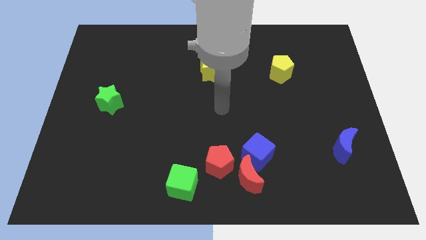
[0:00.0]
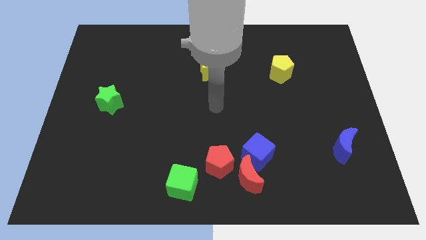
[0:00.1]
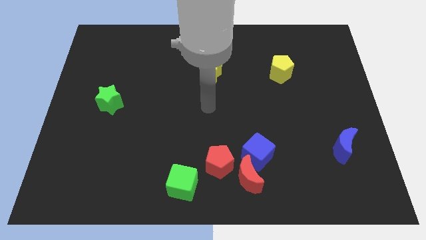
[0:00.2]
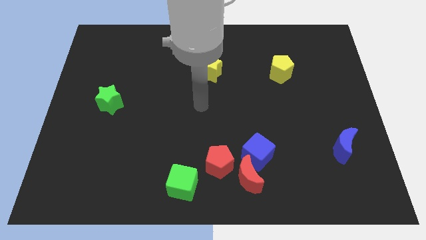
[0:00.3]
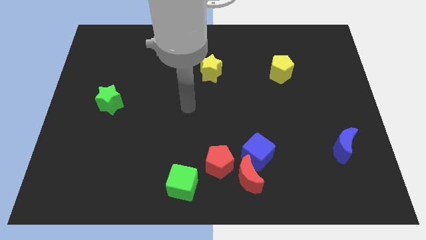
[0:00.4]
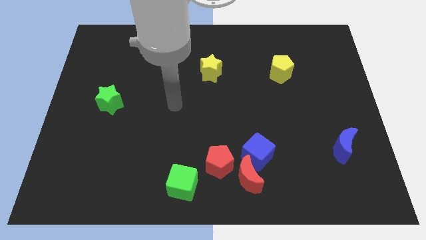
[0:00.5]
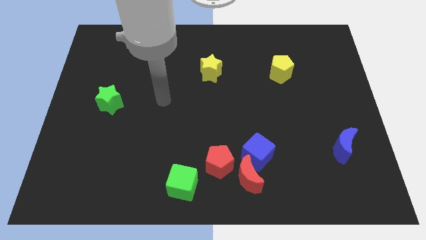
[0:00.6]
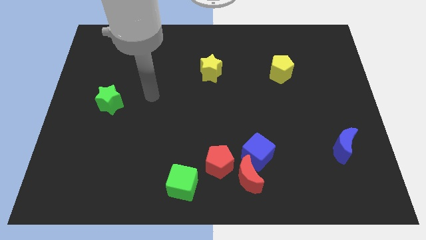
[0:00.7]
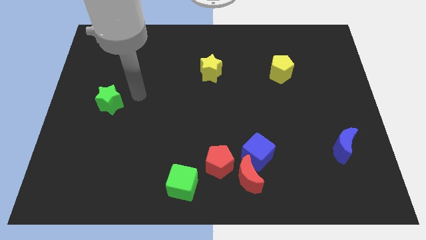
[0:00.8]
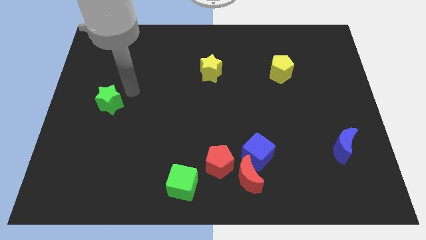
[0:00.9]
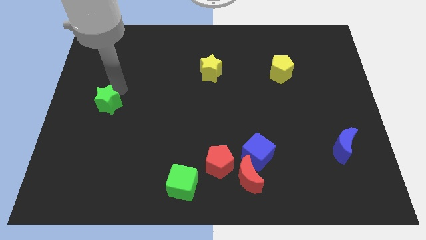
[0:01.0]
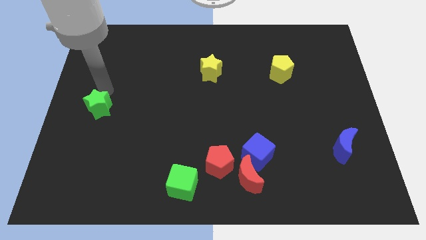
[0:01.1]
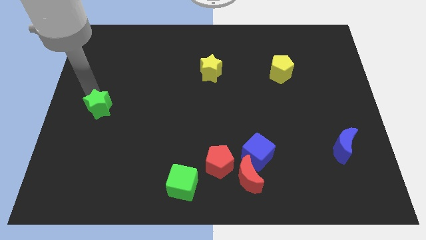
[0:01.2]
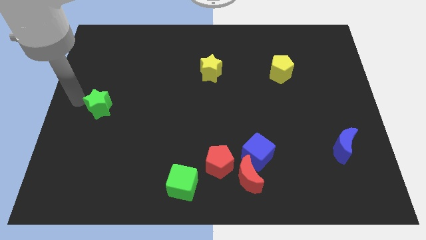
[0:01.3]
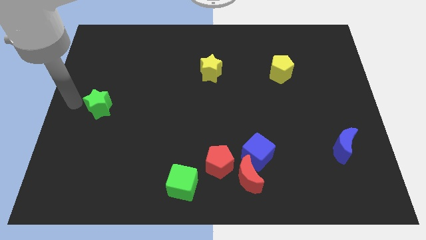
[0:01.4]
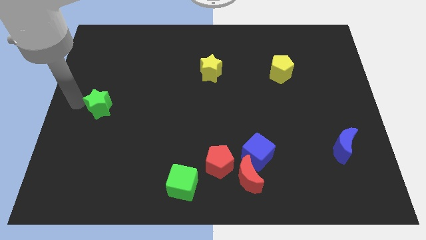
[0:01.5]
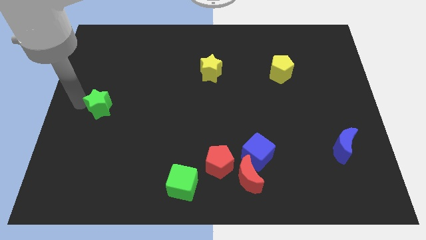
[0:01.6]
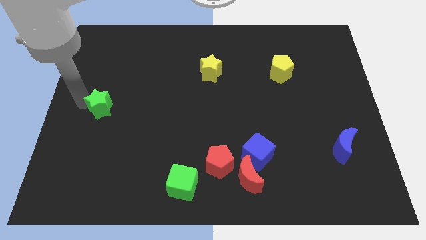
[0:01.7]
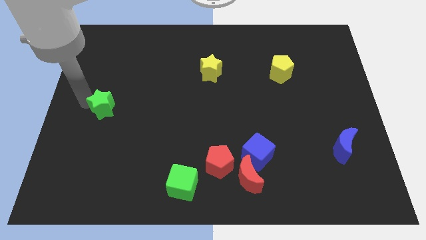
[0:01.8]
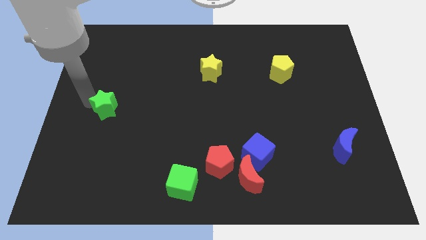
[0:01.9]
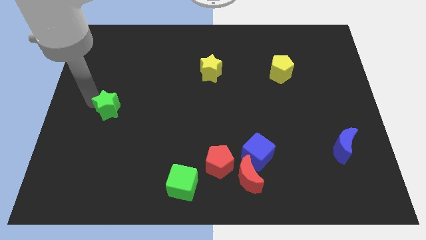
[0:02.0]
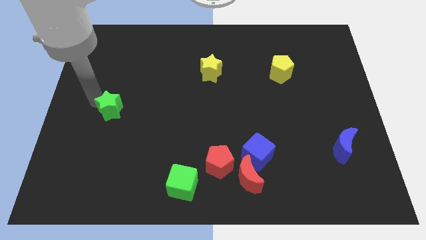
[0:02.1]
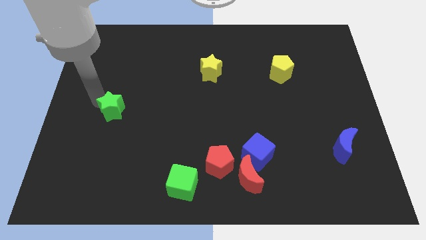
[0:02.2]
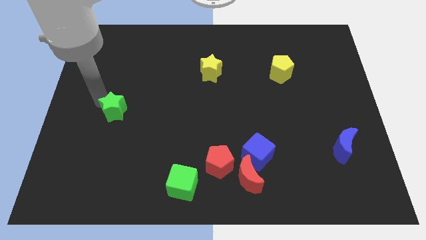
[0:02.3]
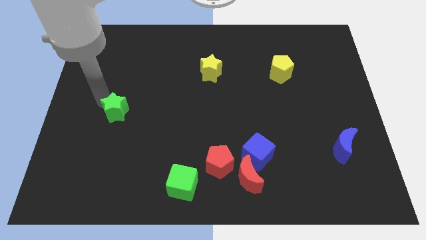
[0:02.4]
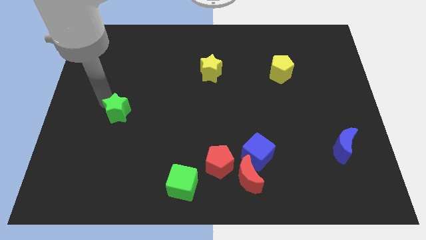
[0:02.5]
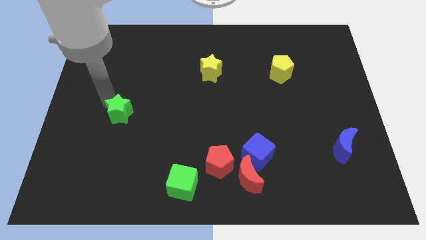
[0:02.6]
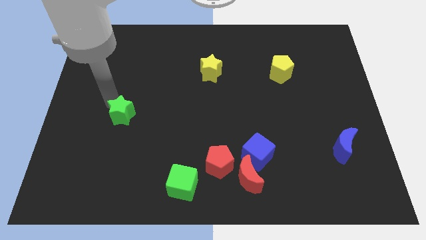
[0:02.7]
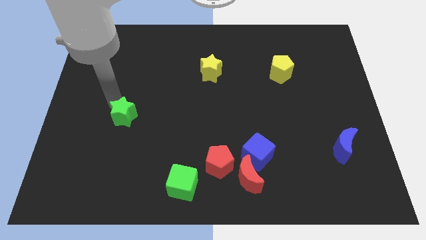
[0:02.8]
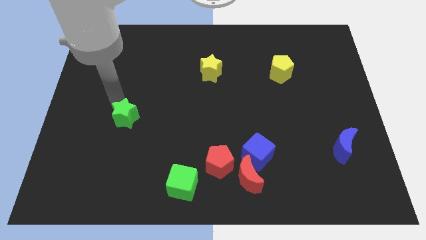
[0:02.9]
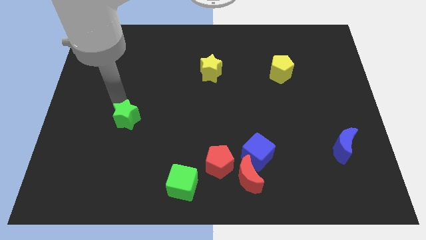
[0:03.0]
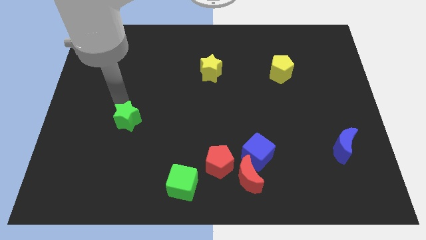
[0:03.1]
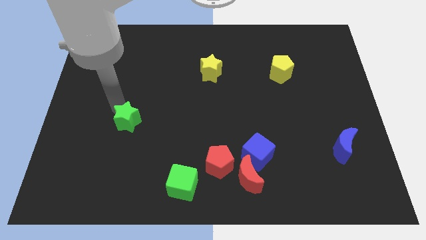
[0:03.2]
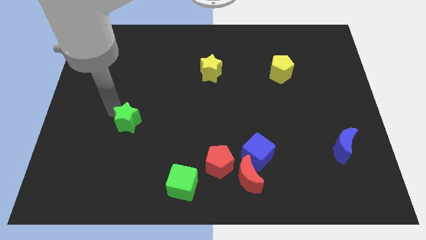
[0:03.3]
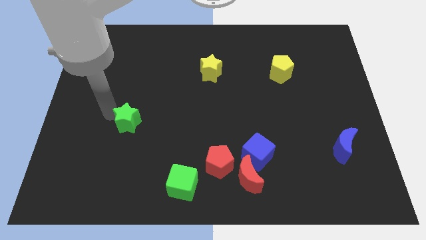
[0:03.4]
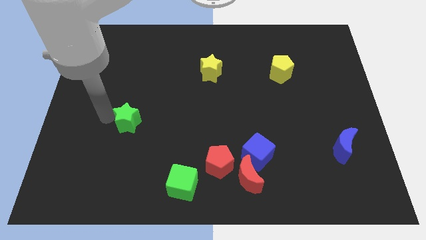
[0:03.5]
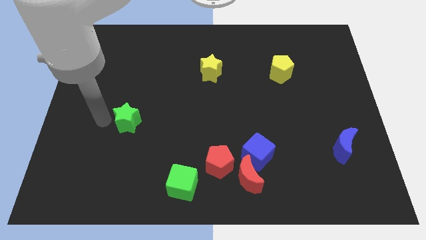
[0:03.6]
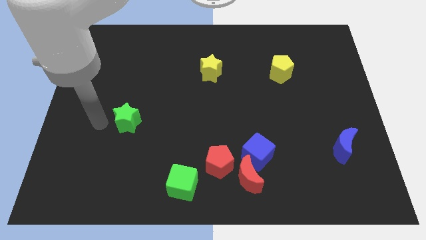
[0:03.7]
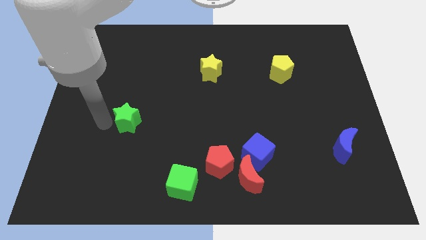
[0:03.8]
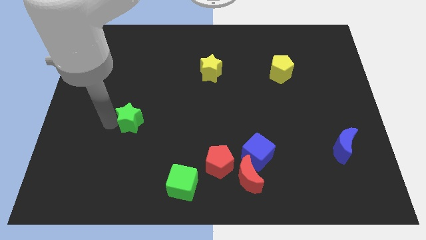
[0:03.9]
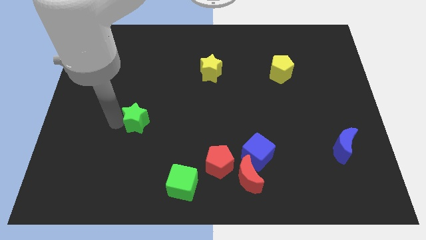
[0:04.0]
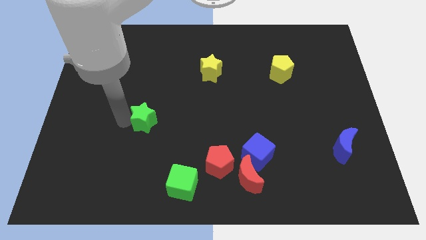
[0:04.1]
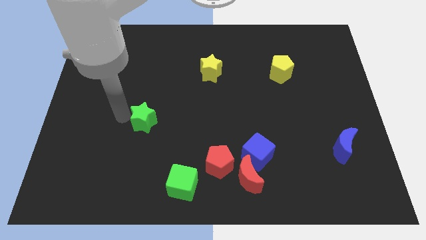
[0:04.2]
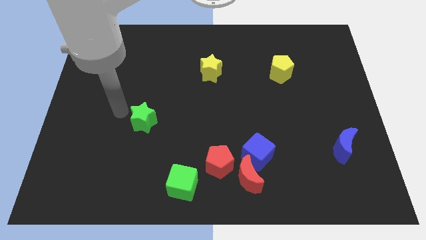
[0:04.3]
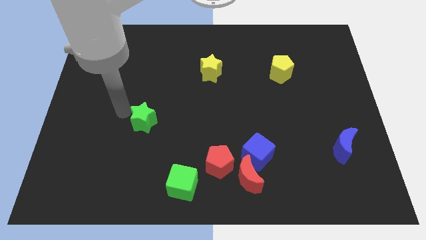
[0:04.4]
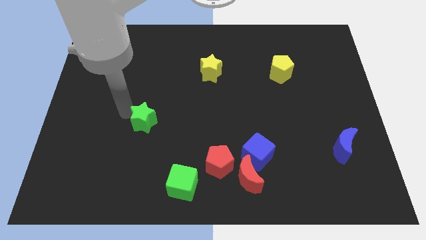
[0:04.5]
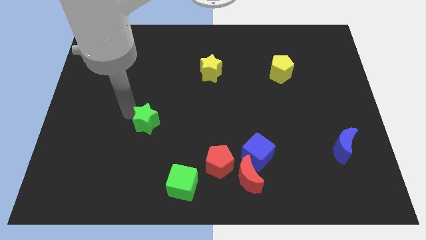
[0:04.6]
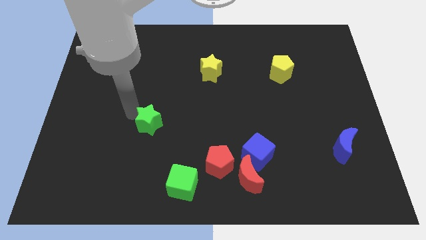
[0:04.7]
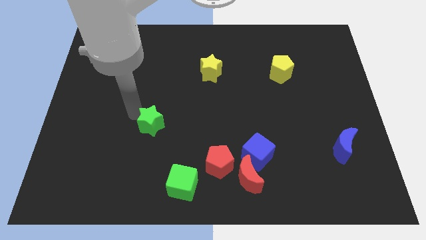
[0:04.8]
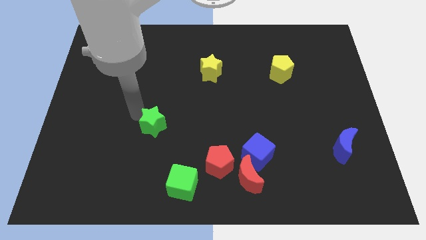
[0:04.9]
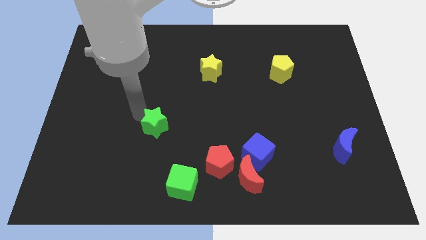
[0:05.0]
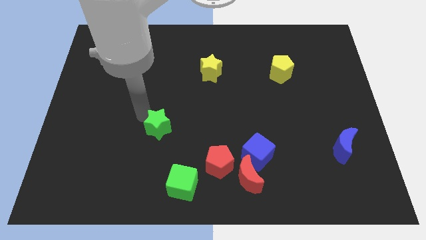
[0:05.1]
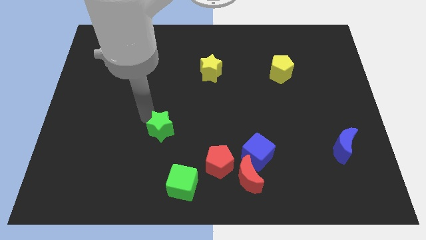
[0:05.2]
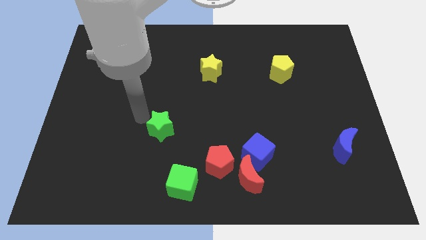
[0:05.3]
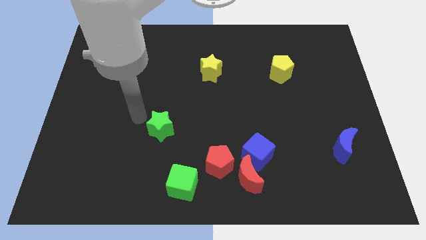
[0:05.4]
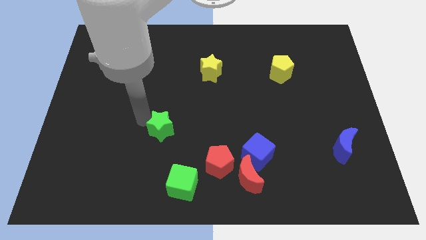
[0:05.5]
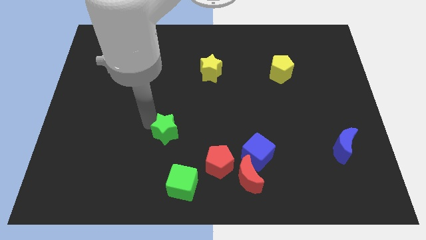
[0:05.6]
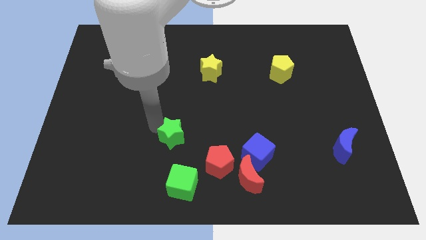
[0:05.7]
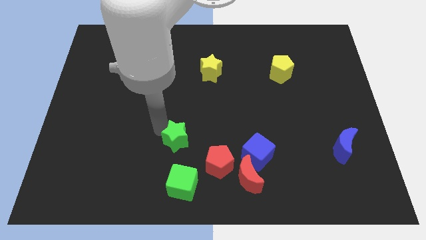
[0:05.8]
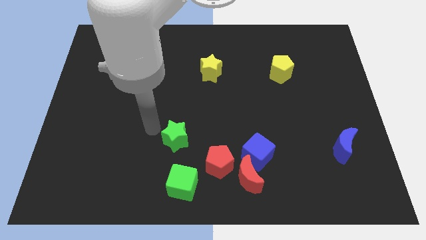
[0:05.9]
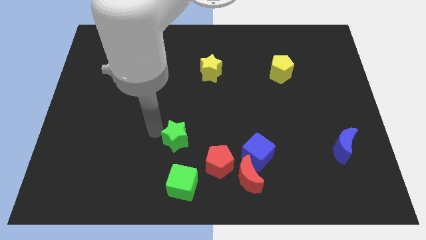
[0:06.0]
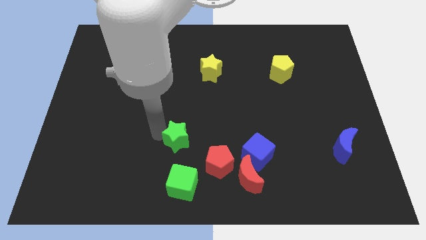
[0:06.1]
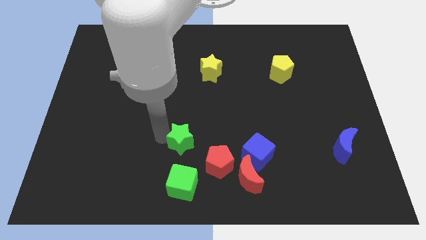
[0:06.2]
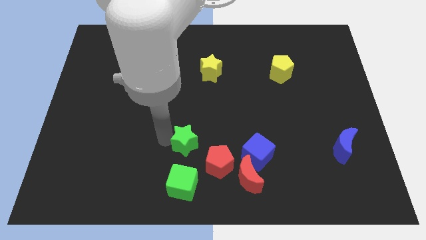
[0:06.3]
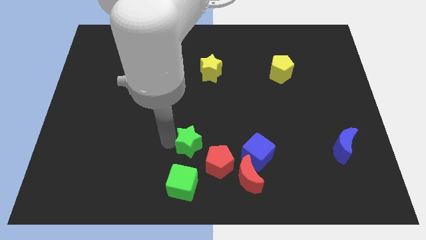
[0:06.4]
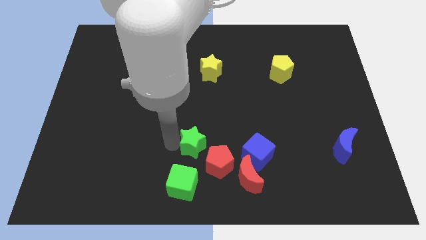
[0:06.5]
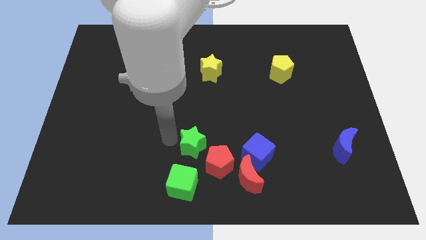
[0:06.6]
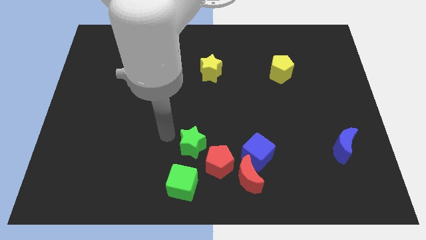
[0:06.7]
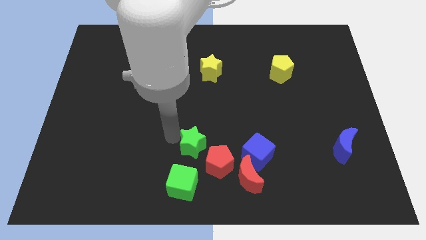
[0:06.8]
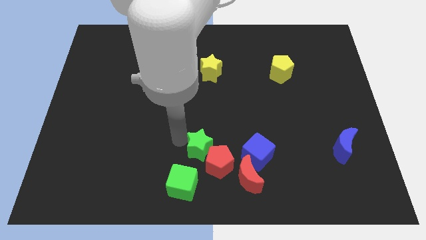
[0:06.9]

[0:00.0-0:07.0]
put the green star to the top left of the red moon
